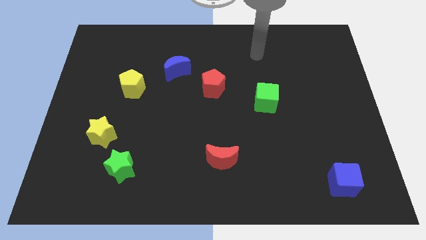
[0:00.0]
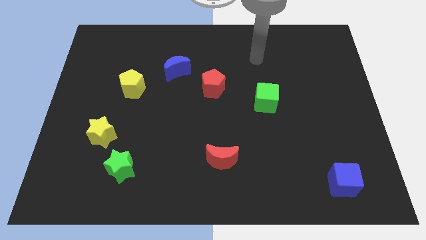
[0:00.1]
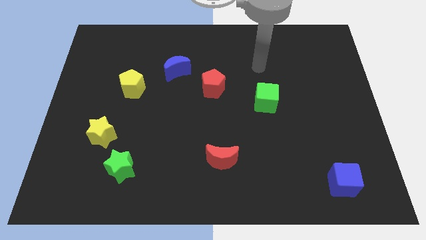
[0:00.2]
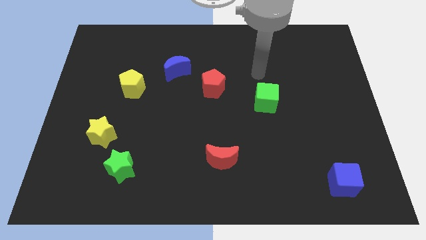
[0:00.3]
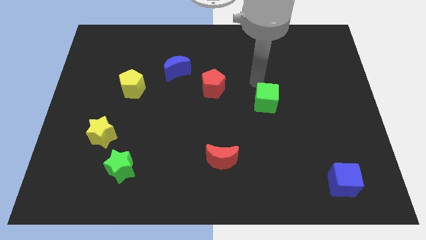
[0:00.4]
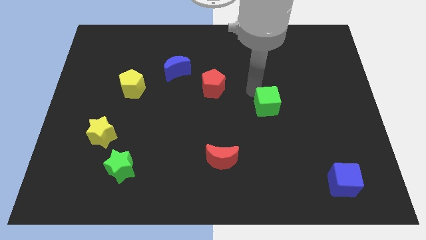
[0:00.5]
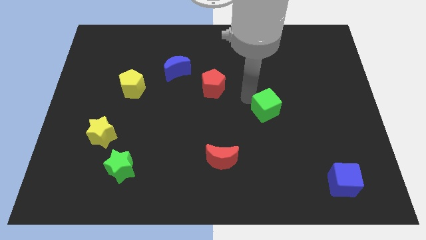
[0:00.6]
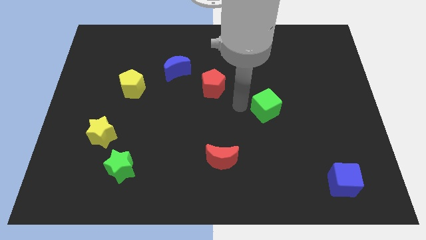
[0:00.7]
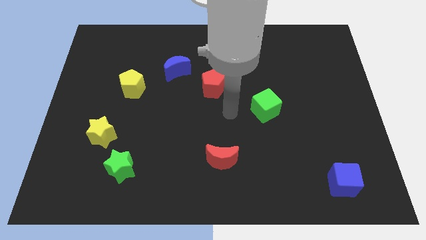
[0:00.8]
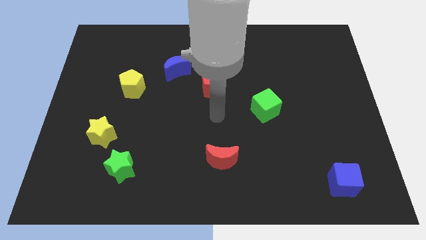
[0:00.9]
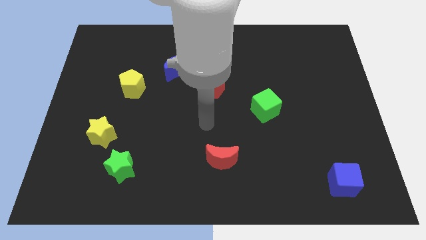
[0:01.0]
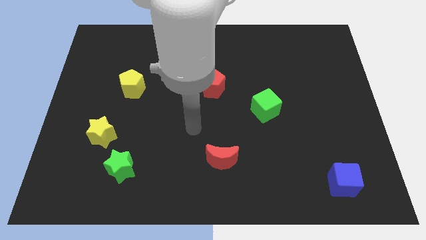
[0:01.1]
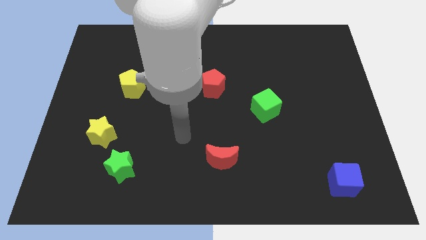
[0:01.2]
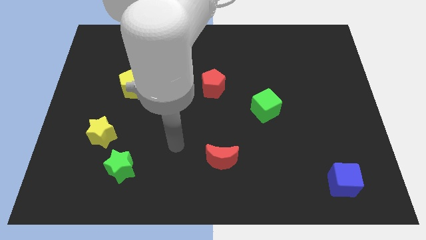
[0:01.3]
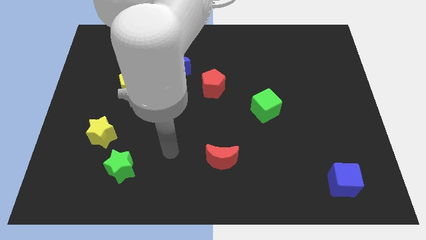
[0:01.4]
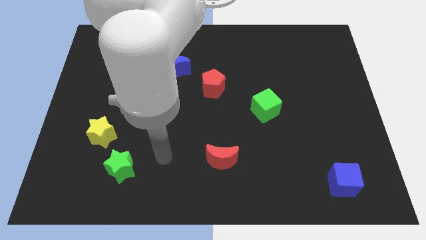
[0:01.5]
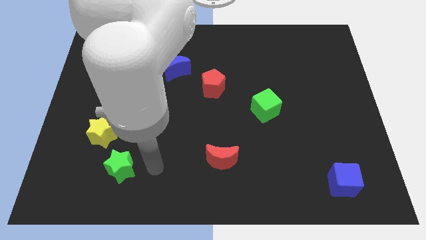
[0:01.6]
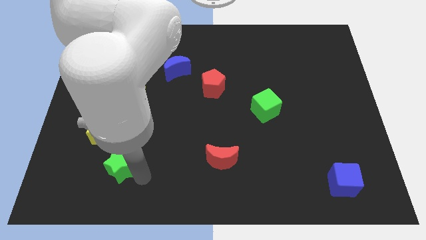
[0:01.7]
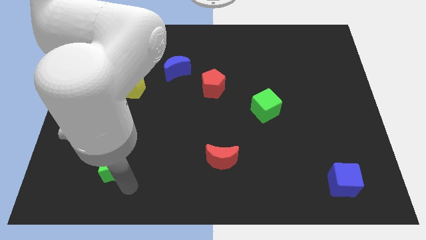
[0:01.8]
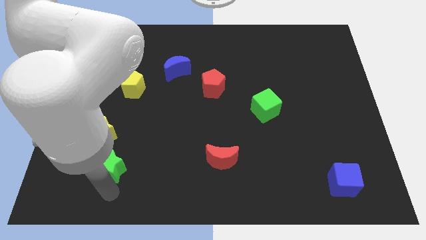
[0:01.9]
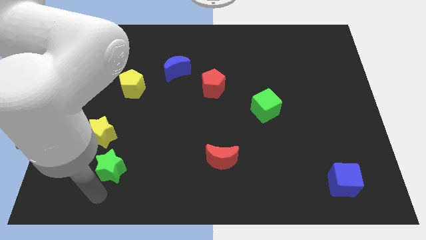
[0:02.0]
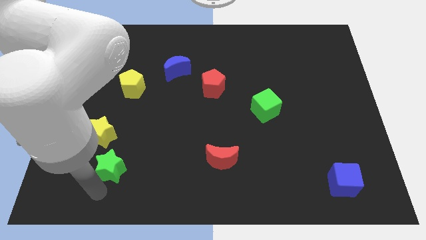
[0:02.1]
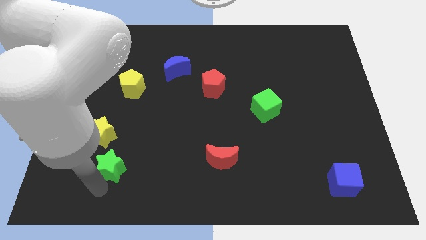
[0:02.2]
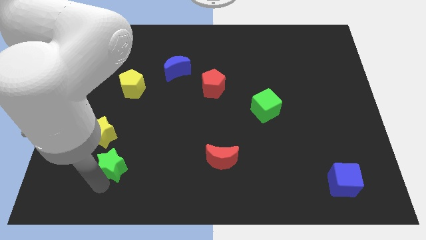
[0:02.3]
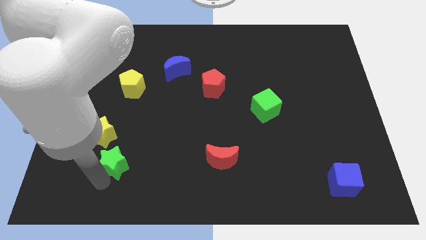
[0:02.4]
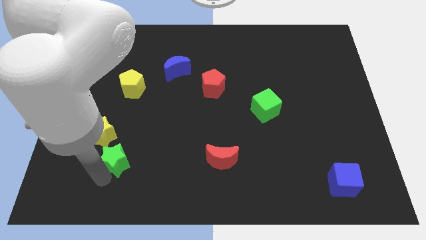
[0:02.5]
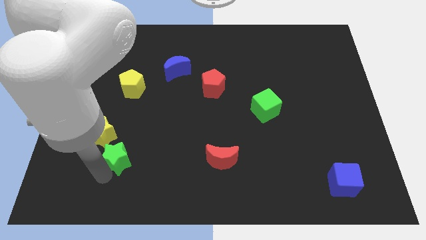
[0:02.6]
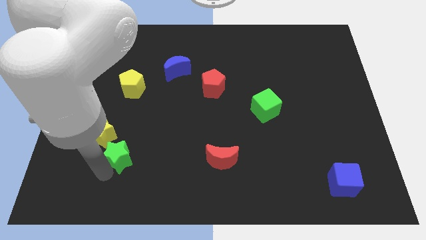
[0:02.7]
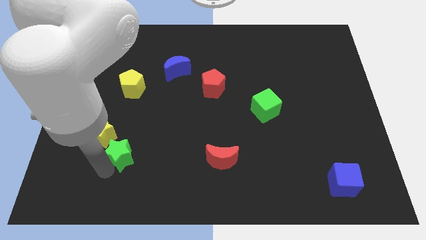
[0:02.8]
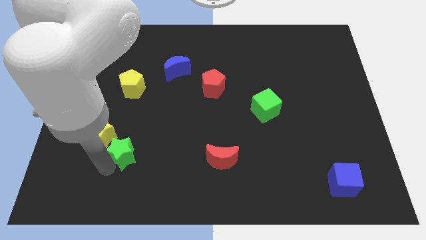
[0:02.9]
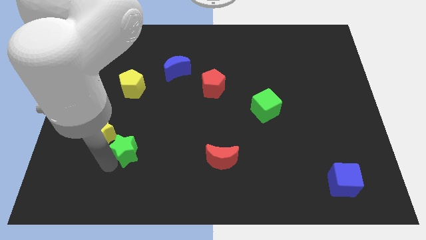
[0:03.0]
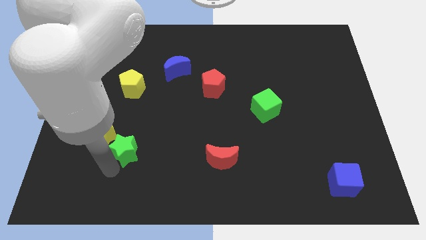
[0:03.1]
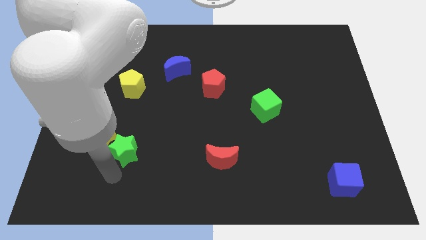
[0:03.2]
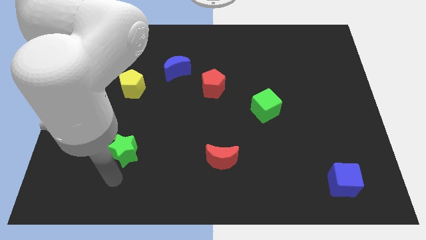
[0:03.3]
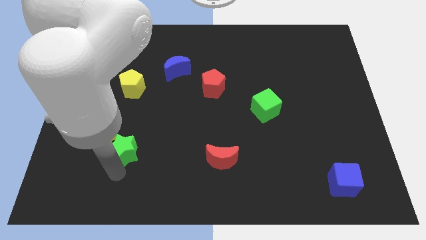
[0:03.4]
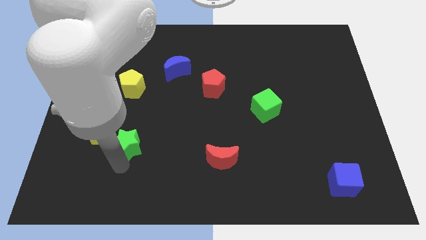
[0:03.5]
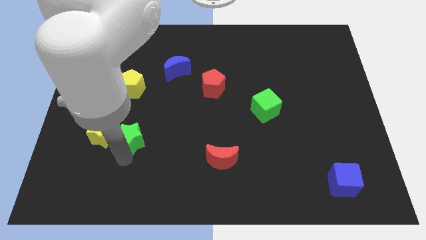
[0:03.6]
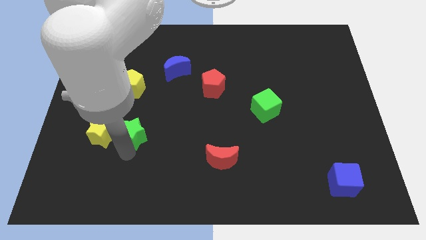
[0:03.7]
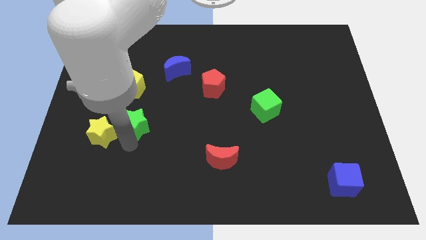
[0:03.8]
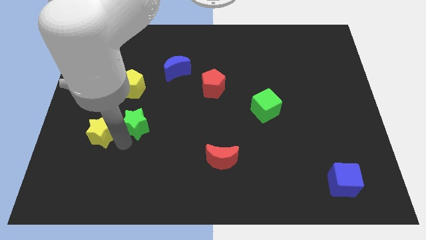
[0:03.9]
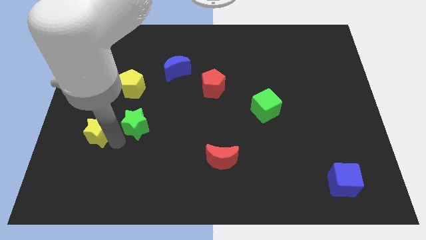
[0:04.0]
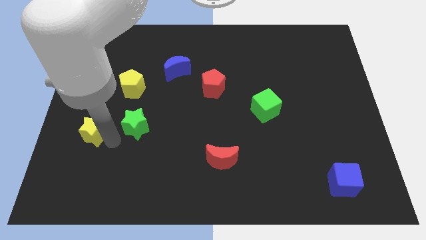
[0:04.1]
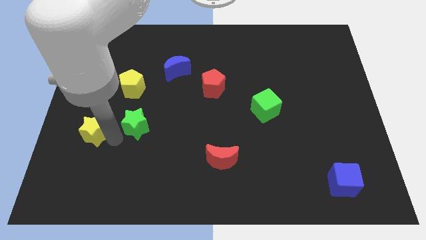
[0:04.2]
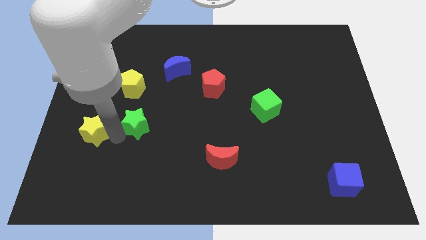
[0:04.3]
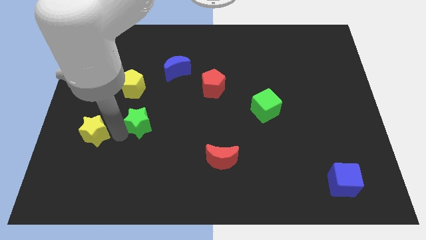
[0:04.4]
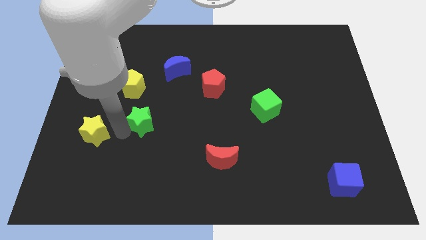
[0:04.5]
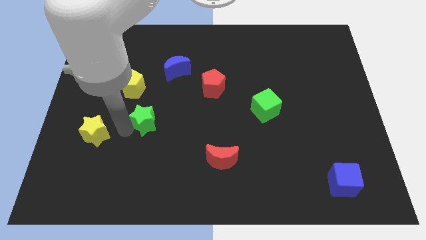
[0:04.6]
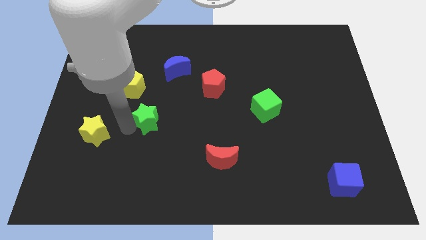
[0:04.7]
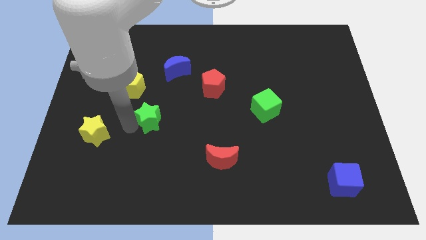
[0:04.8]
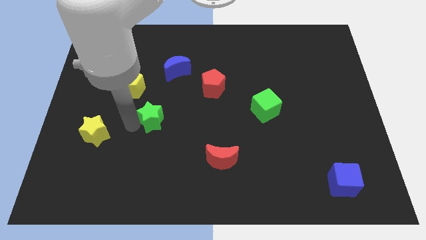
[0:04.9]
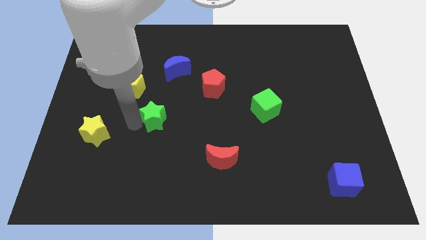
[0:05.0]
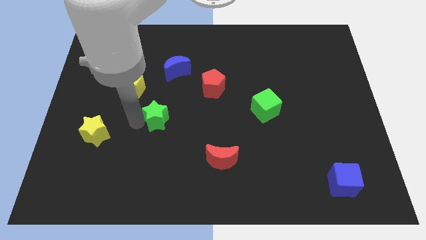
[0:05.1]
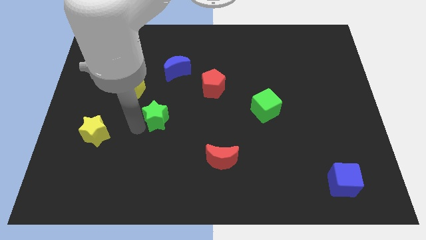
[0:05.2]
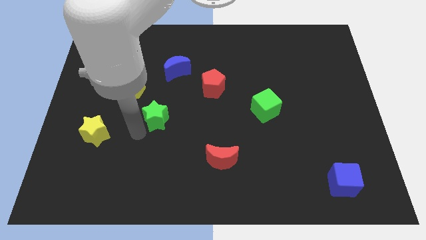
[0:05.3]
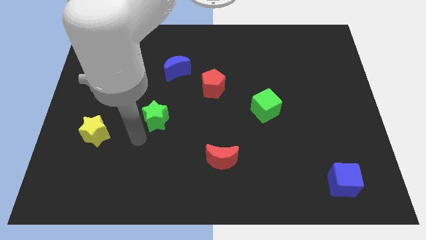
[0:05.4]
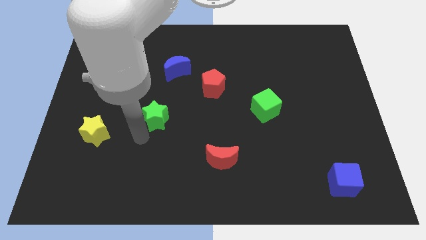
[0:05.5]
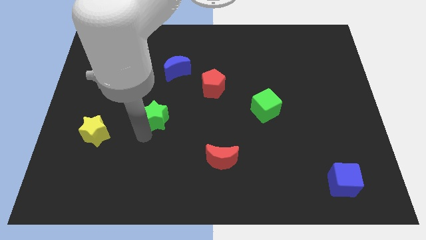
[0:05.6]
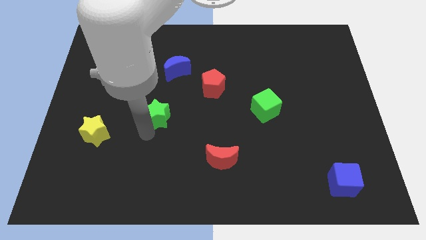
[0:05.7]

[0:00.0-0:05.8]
put the green star to the bottom of the blue moon

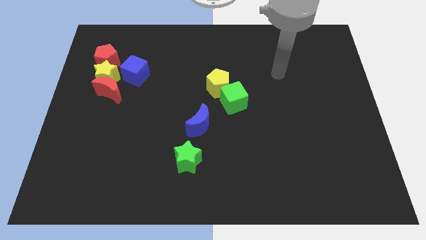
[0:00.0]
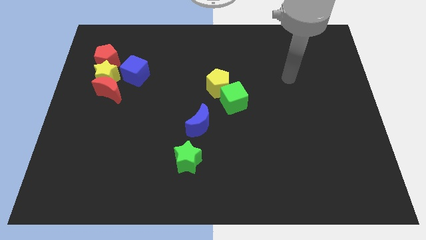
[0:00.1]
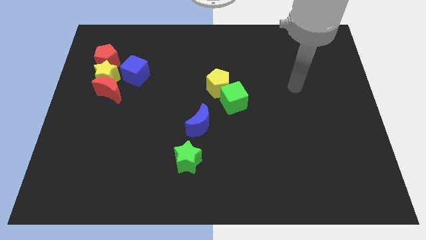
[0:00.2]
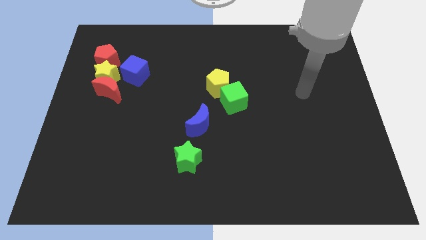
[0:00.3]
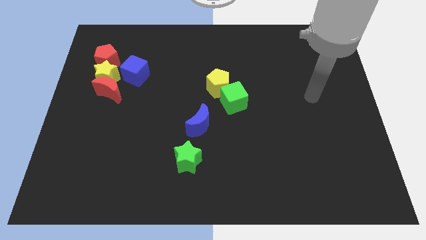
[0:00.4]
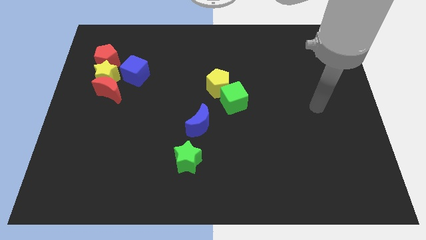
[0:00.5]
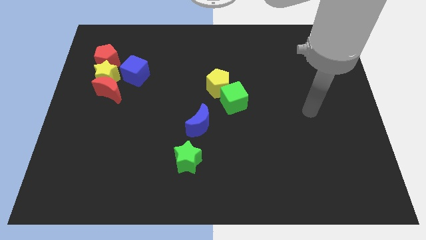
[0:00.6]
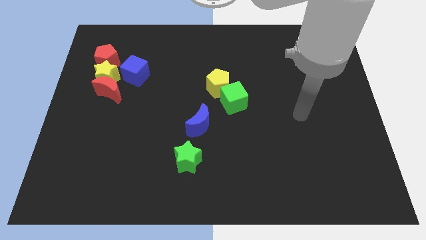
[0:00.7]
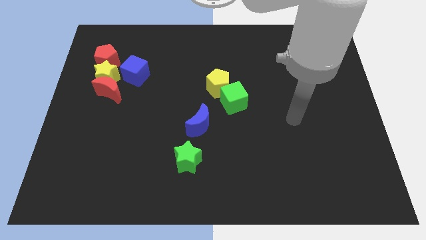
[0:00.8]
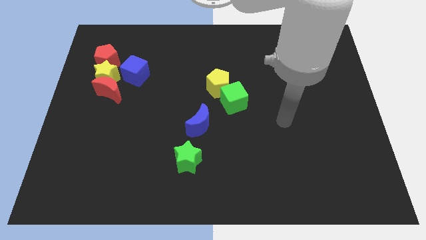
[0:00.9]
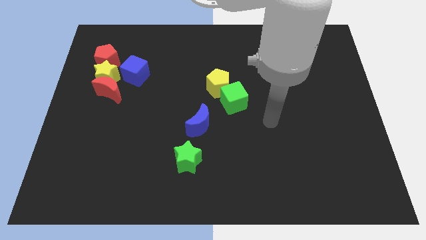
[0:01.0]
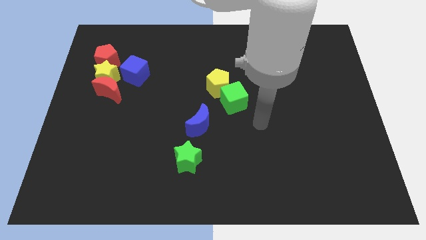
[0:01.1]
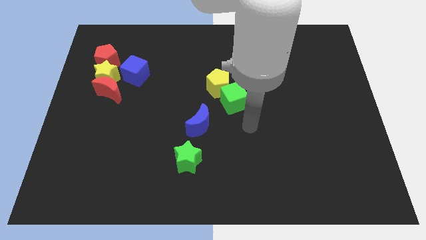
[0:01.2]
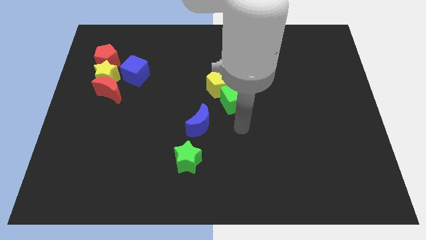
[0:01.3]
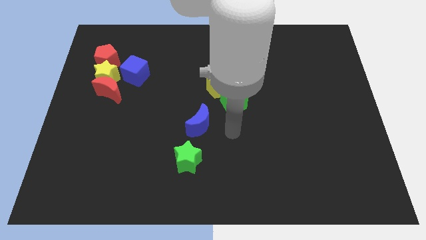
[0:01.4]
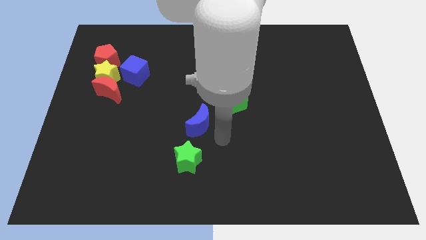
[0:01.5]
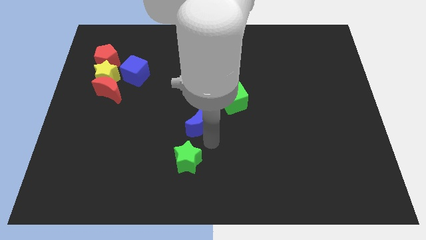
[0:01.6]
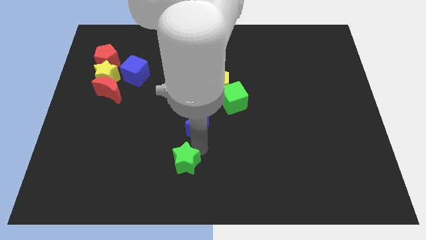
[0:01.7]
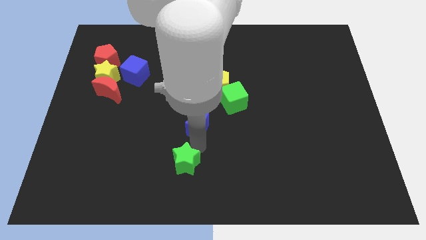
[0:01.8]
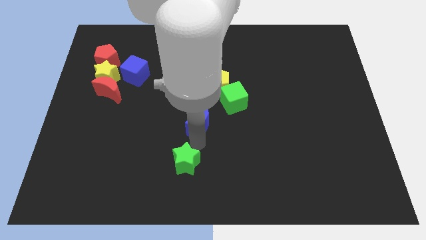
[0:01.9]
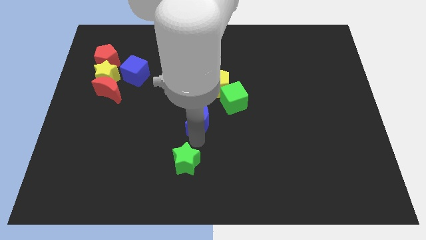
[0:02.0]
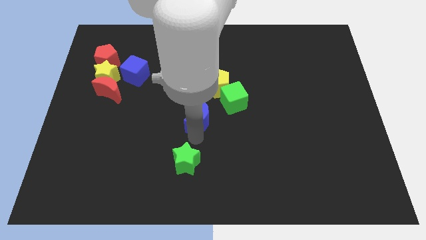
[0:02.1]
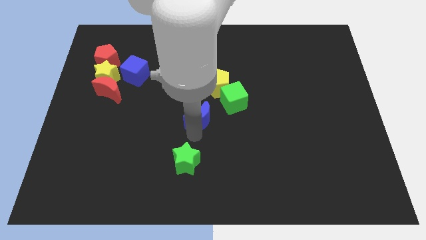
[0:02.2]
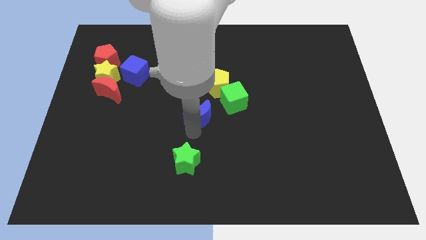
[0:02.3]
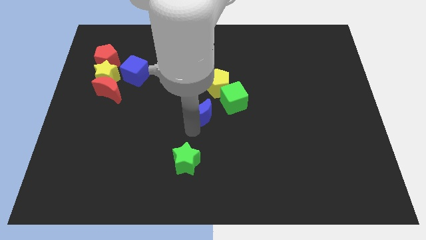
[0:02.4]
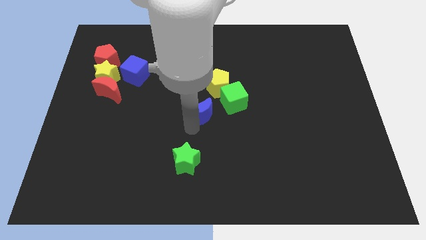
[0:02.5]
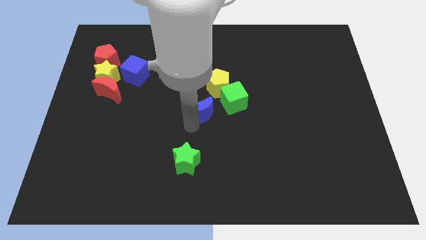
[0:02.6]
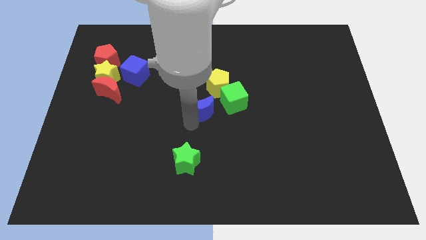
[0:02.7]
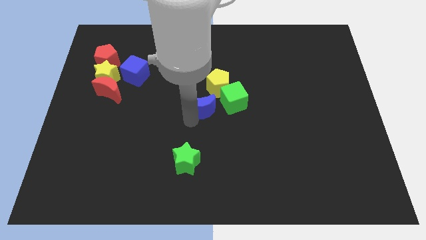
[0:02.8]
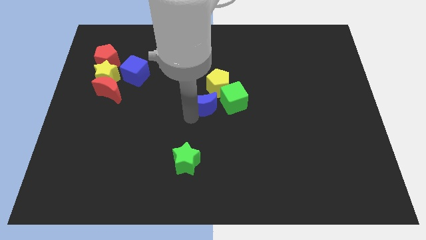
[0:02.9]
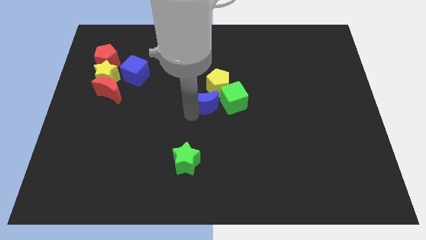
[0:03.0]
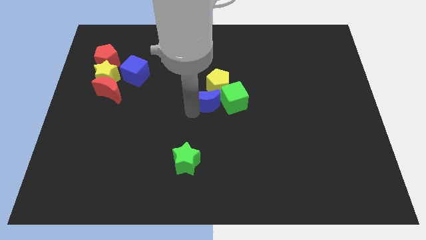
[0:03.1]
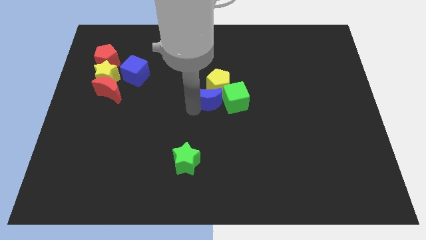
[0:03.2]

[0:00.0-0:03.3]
slide the blue moon to the top left side of the green cube
